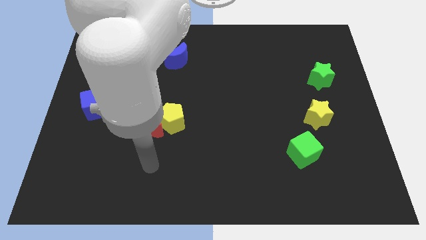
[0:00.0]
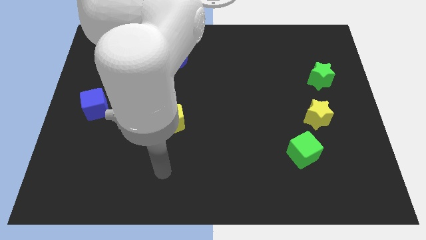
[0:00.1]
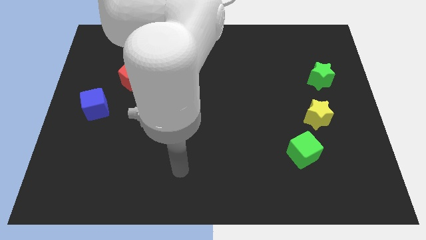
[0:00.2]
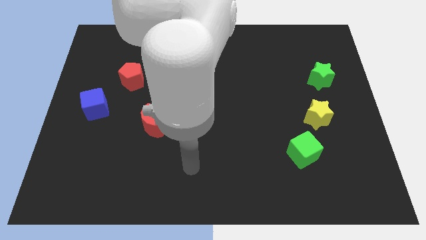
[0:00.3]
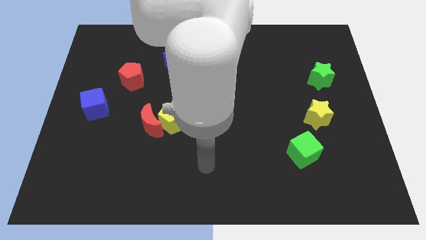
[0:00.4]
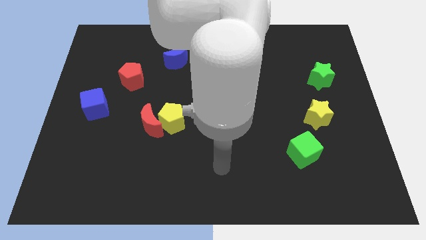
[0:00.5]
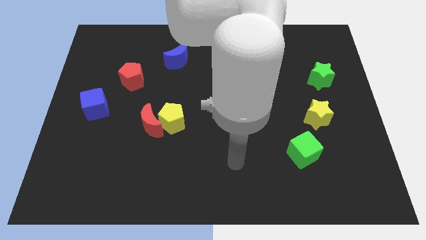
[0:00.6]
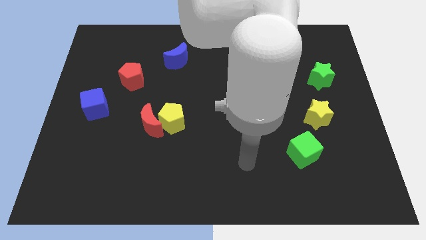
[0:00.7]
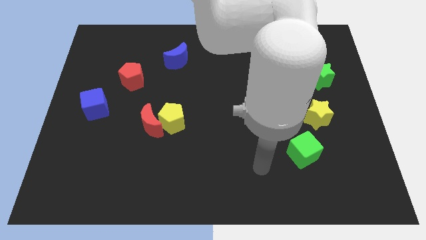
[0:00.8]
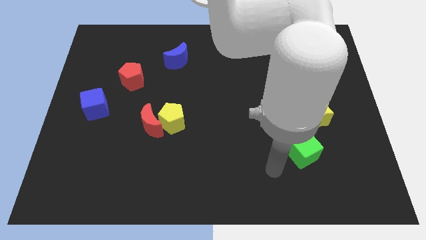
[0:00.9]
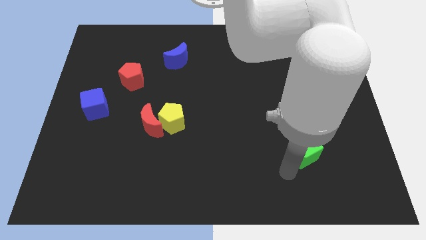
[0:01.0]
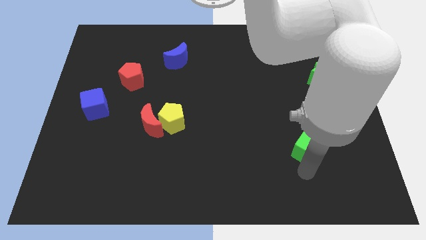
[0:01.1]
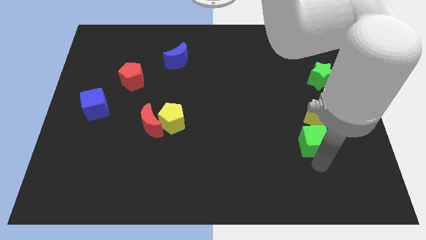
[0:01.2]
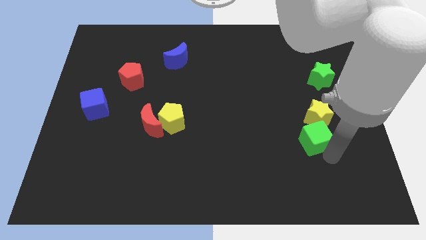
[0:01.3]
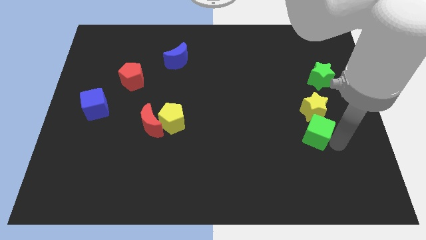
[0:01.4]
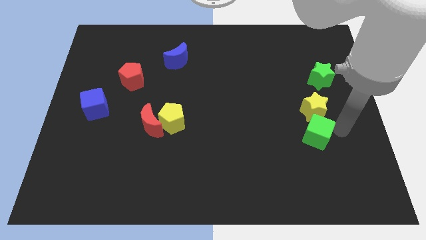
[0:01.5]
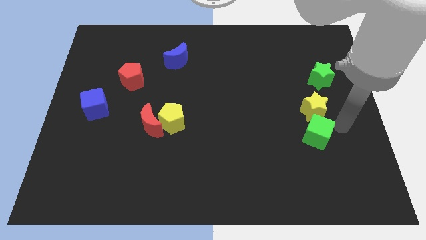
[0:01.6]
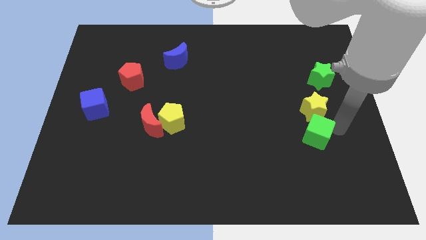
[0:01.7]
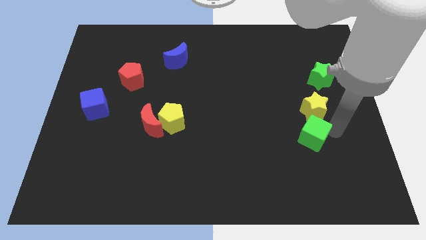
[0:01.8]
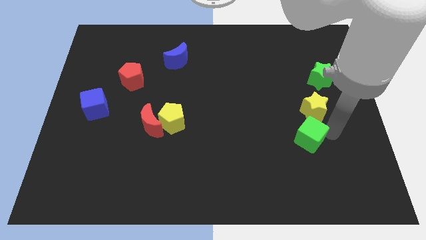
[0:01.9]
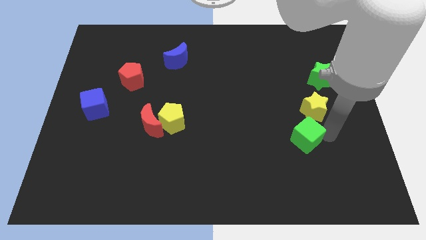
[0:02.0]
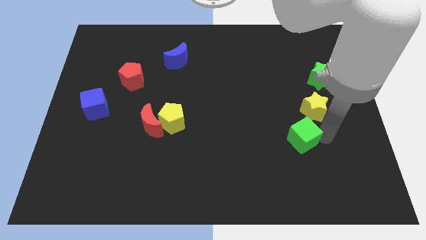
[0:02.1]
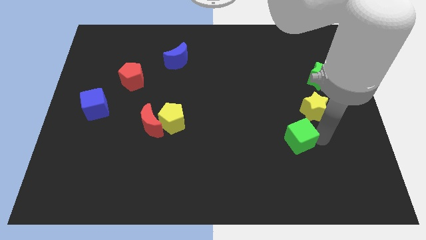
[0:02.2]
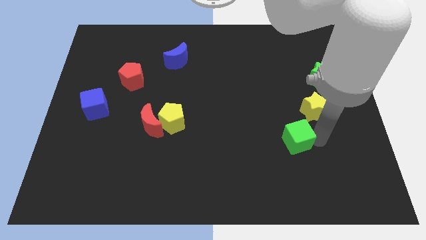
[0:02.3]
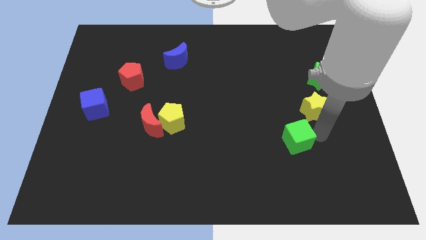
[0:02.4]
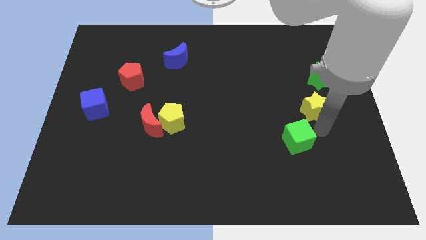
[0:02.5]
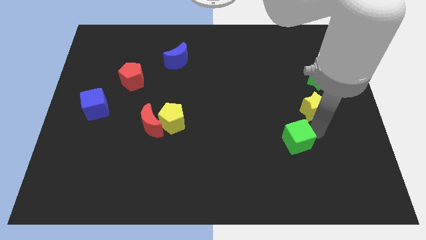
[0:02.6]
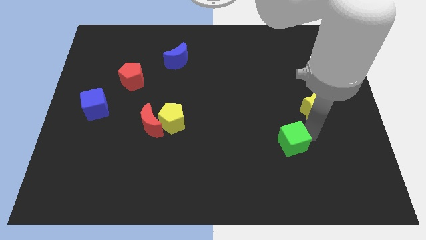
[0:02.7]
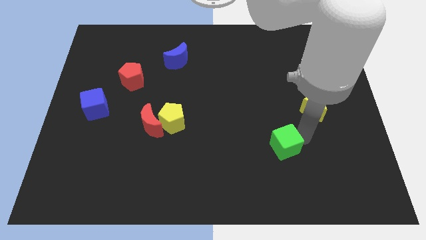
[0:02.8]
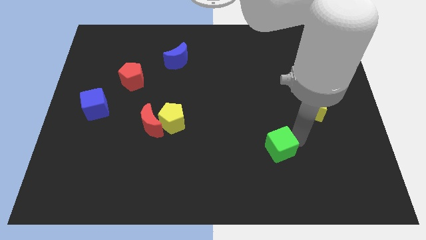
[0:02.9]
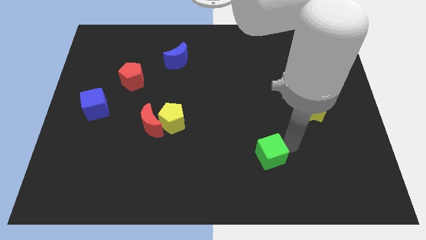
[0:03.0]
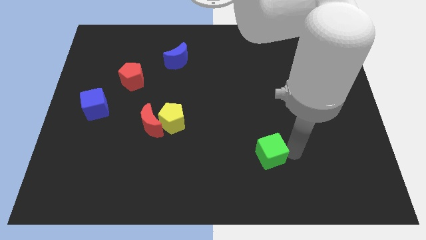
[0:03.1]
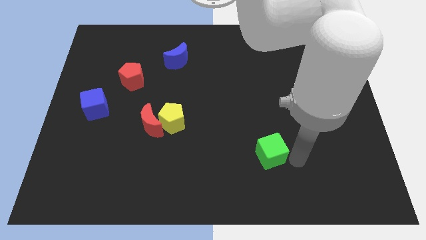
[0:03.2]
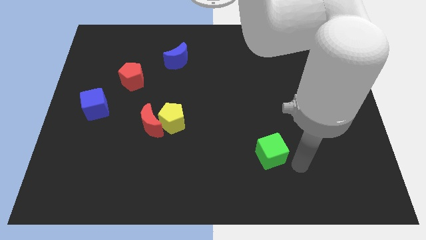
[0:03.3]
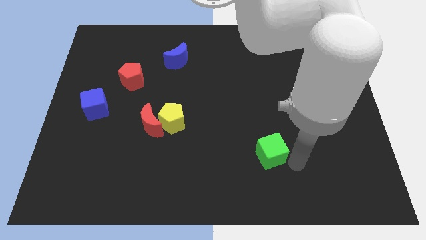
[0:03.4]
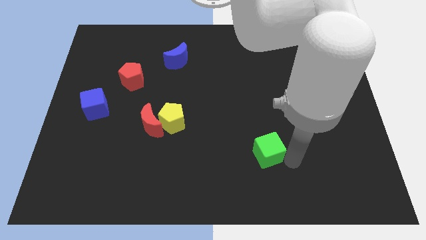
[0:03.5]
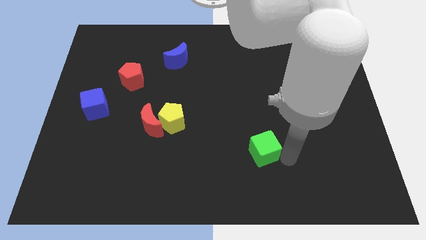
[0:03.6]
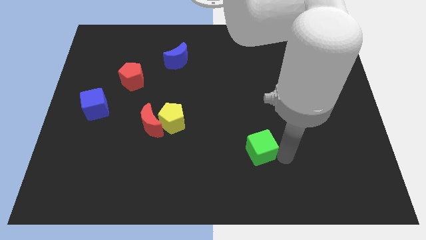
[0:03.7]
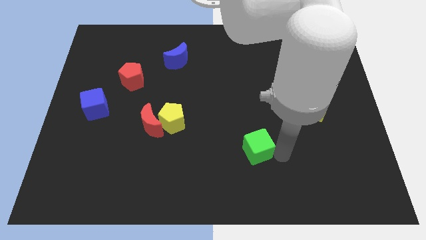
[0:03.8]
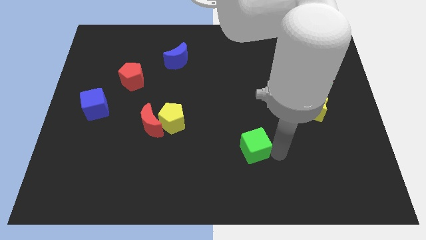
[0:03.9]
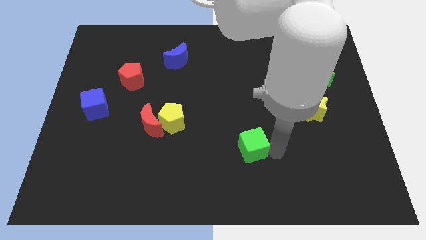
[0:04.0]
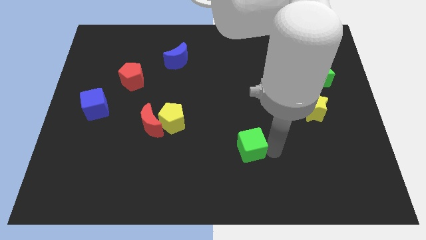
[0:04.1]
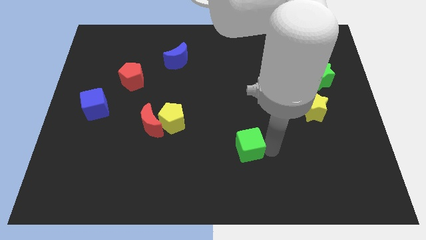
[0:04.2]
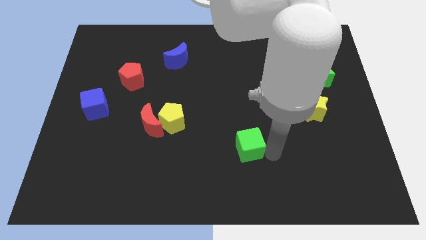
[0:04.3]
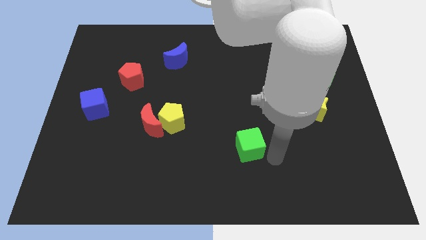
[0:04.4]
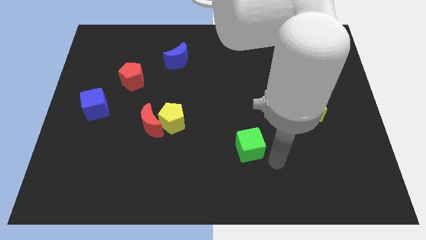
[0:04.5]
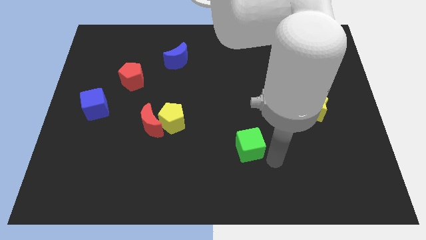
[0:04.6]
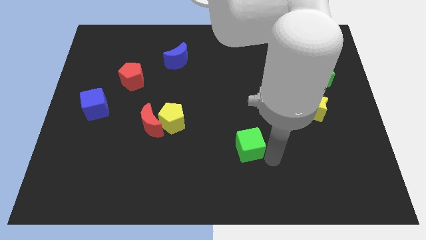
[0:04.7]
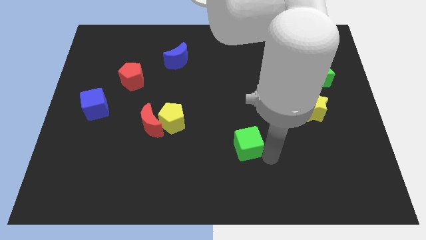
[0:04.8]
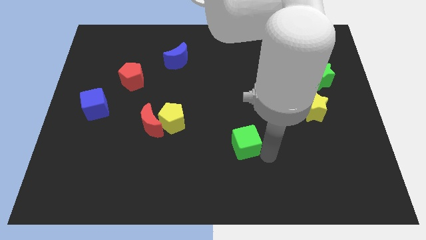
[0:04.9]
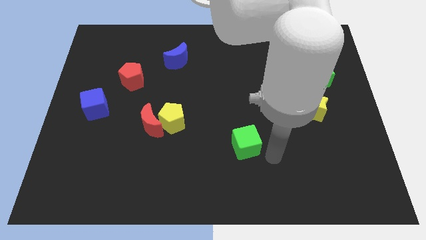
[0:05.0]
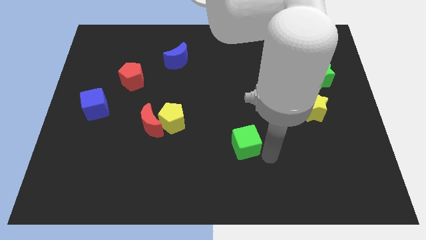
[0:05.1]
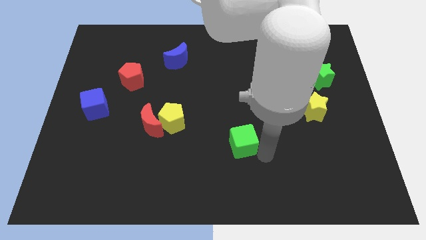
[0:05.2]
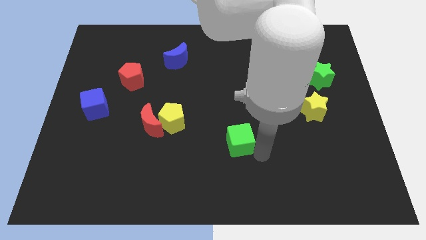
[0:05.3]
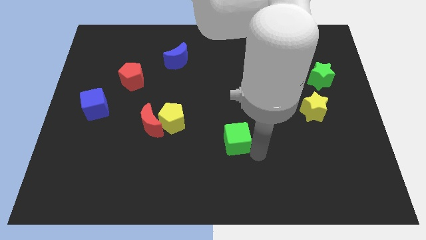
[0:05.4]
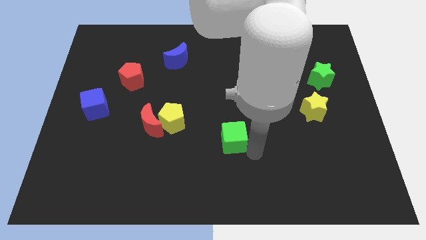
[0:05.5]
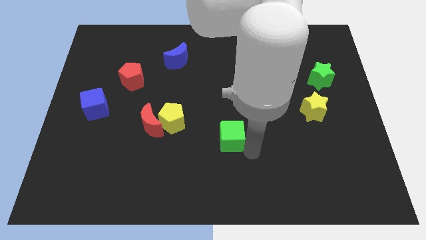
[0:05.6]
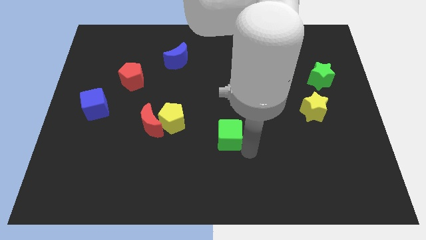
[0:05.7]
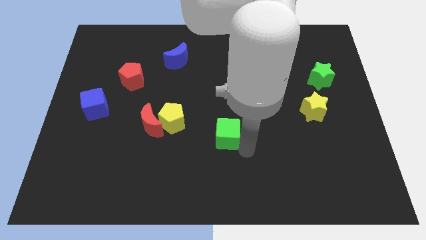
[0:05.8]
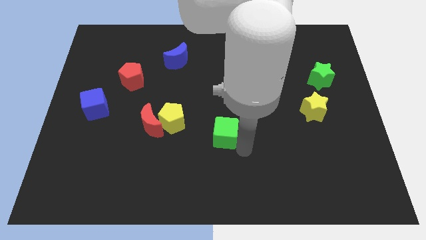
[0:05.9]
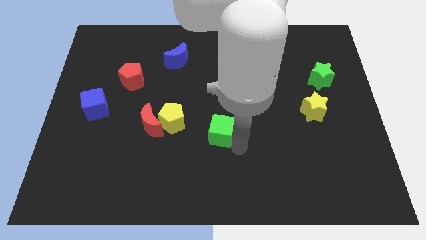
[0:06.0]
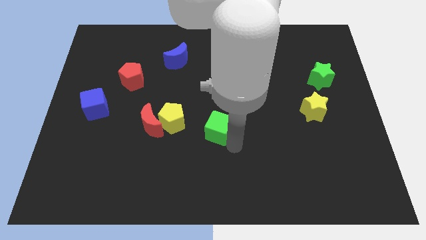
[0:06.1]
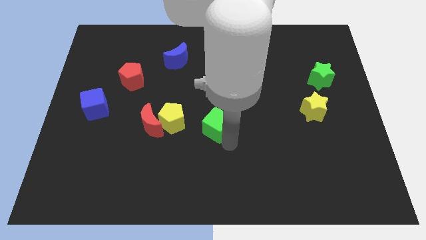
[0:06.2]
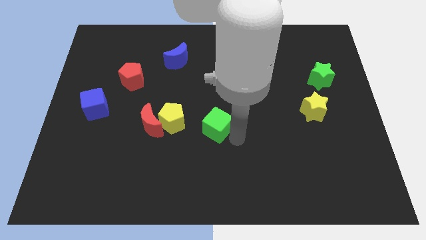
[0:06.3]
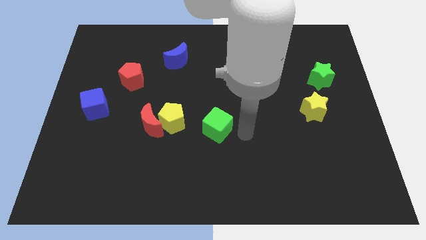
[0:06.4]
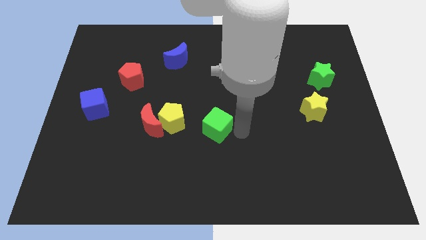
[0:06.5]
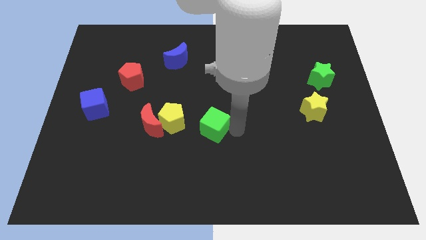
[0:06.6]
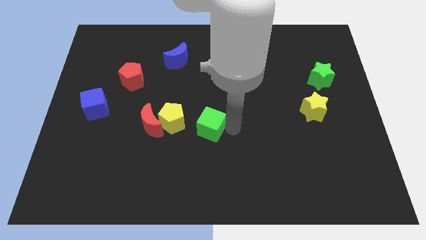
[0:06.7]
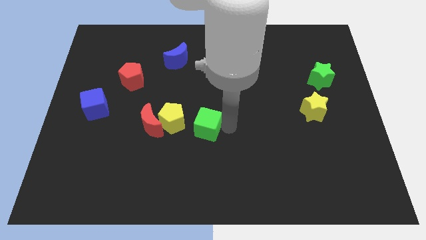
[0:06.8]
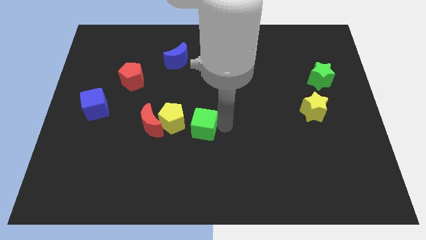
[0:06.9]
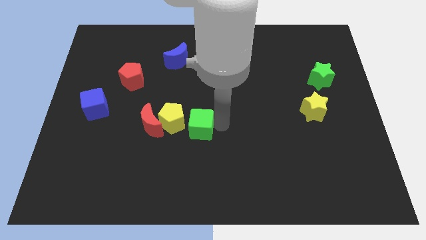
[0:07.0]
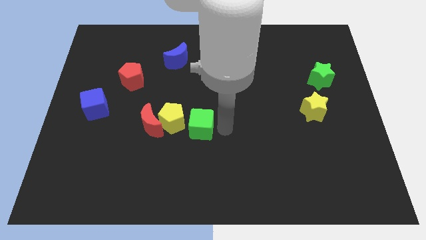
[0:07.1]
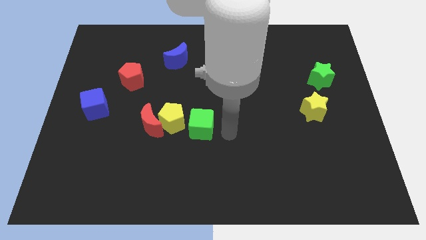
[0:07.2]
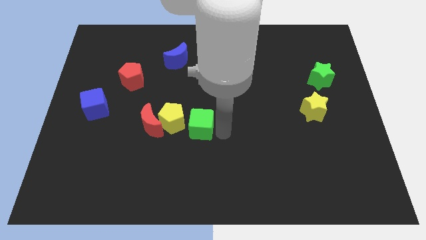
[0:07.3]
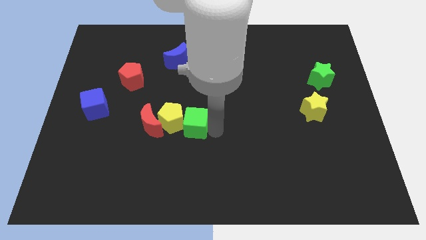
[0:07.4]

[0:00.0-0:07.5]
push the green cube next to the yellow pentagon
